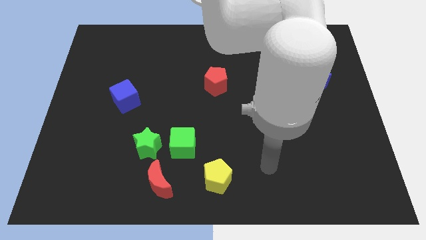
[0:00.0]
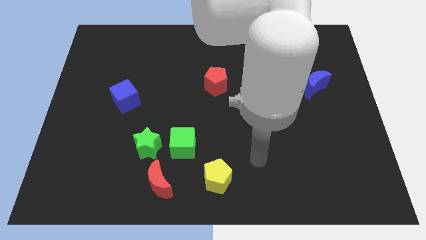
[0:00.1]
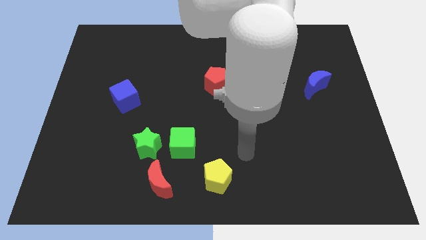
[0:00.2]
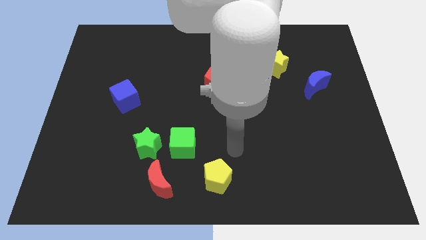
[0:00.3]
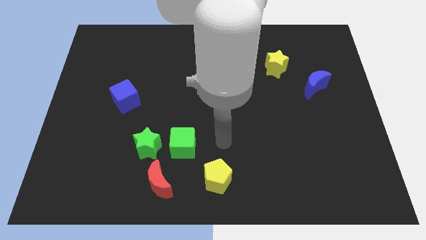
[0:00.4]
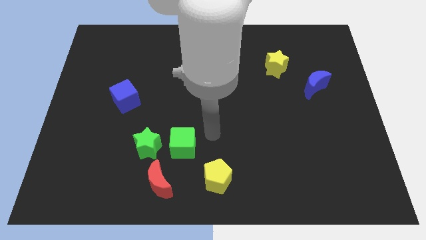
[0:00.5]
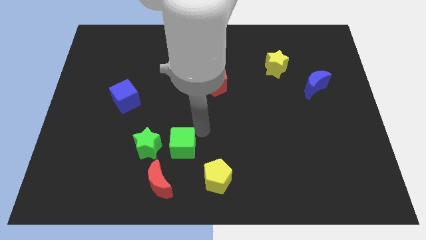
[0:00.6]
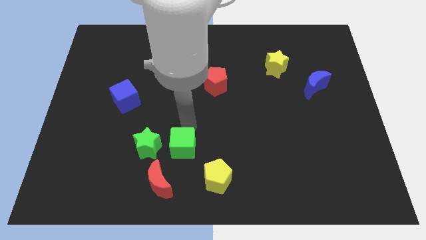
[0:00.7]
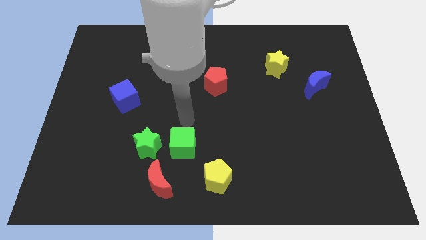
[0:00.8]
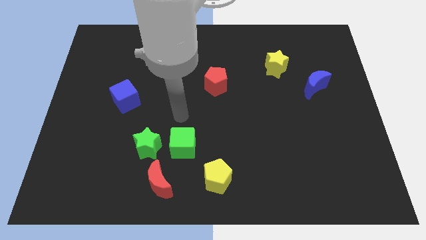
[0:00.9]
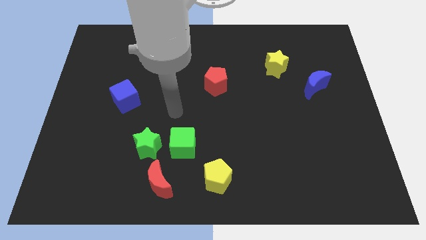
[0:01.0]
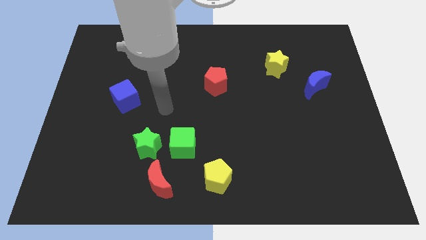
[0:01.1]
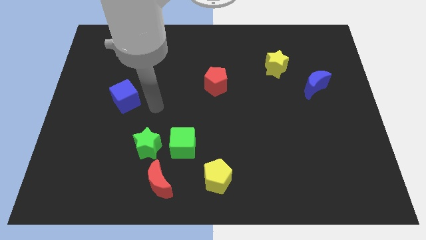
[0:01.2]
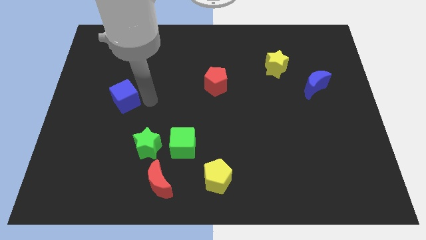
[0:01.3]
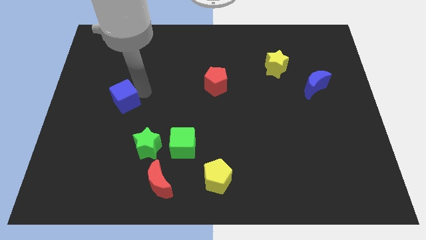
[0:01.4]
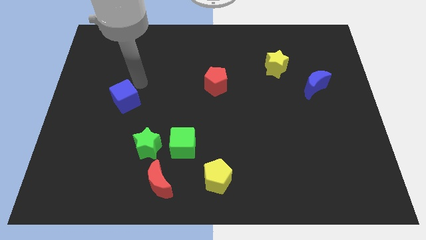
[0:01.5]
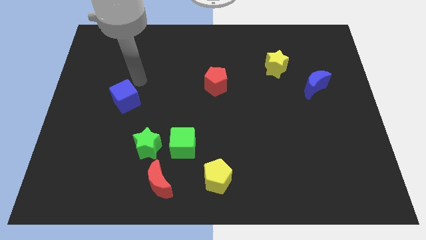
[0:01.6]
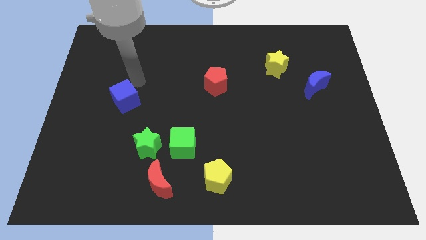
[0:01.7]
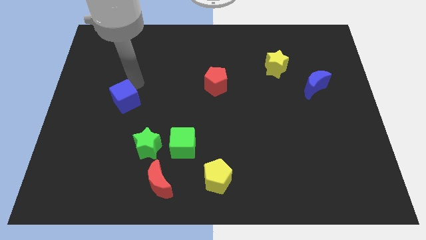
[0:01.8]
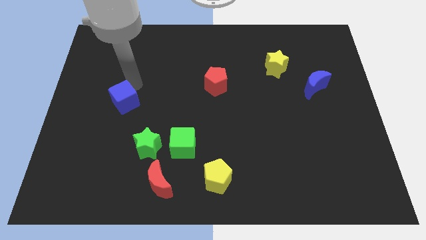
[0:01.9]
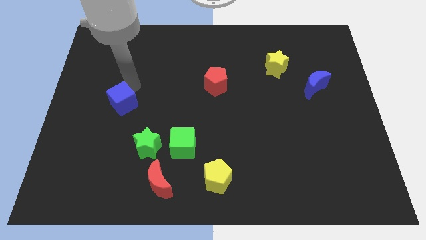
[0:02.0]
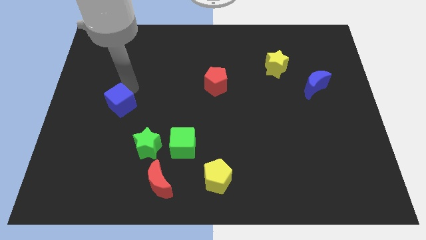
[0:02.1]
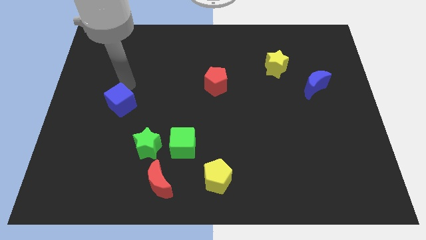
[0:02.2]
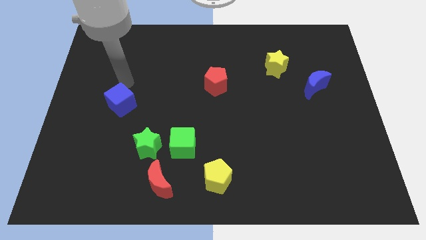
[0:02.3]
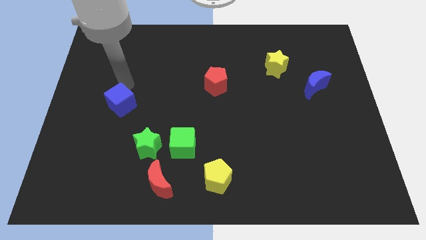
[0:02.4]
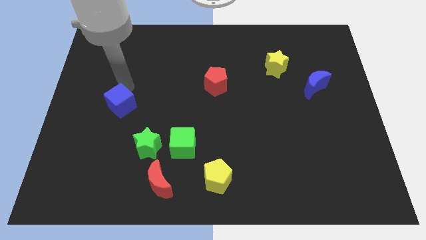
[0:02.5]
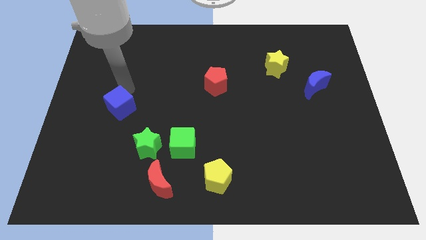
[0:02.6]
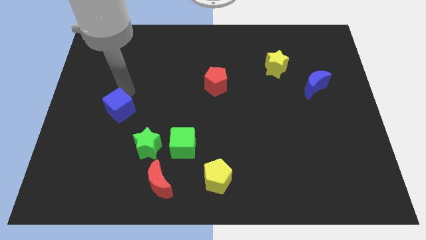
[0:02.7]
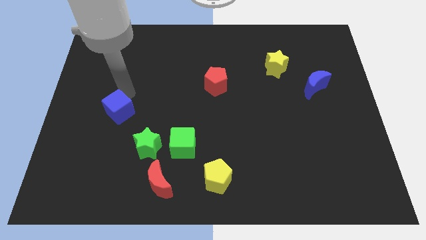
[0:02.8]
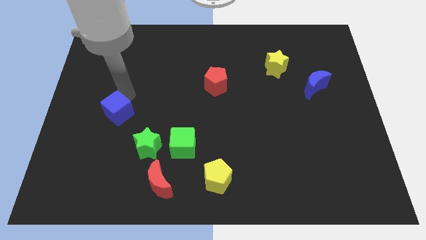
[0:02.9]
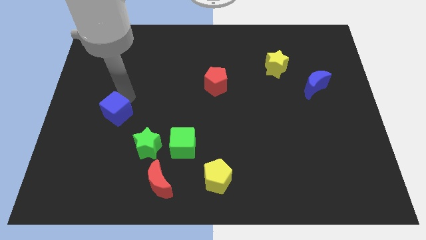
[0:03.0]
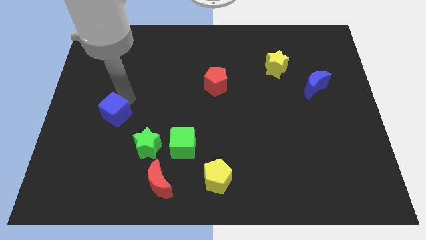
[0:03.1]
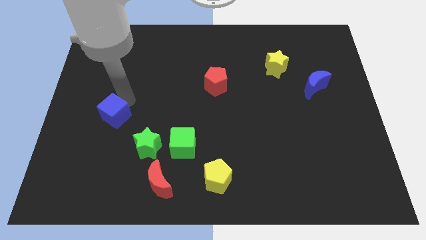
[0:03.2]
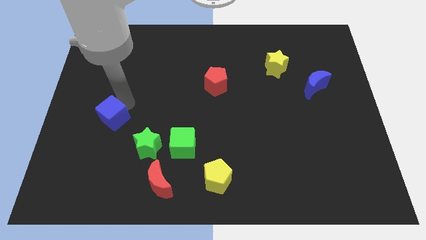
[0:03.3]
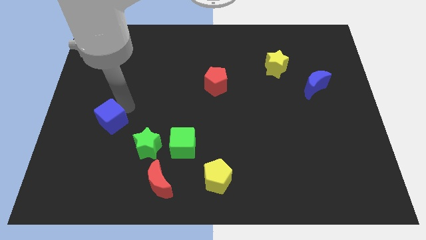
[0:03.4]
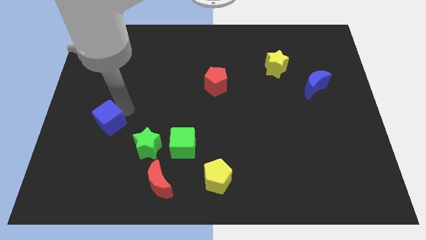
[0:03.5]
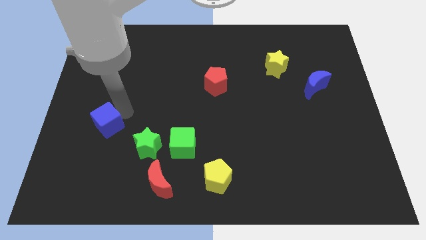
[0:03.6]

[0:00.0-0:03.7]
slide the blue cube down a bit

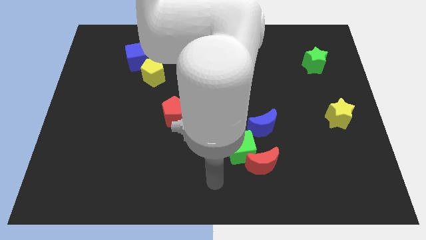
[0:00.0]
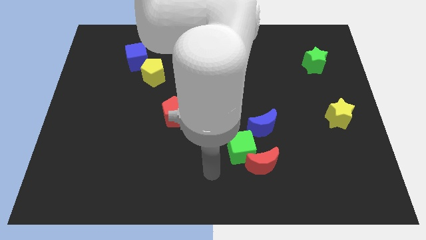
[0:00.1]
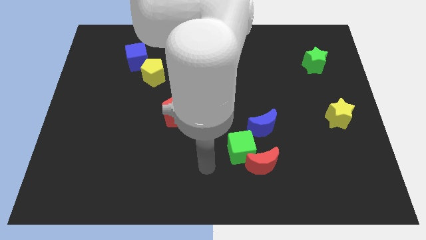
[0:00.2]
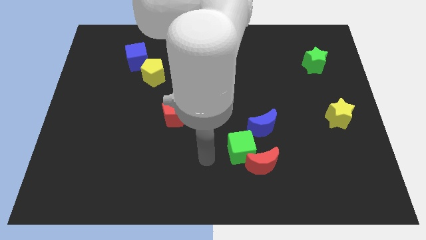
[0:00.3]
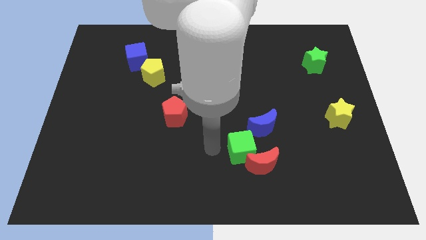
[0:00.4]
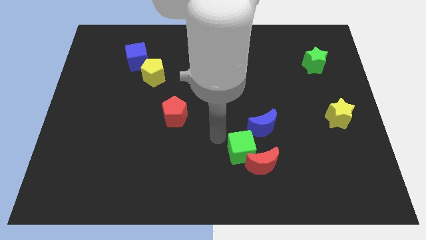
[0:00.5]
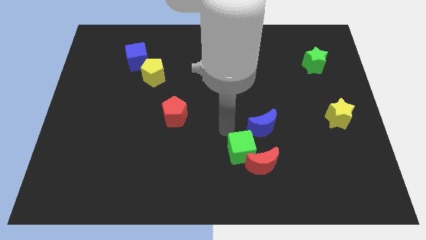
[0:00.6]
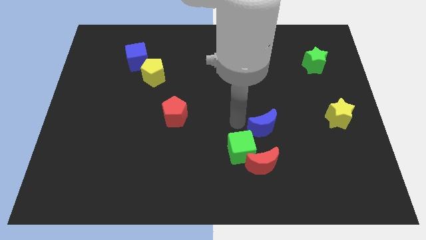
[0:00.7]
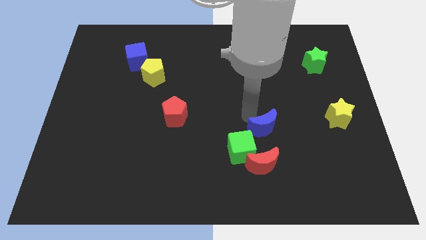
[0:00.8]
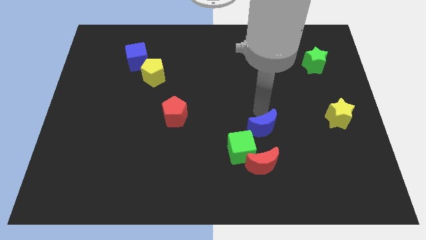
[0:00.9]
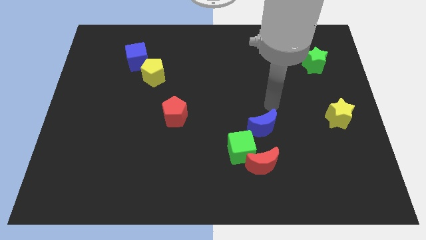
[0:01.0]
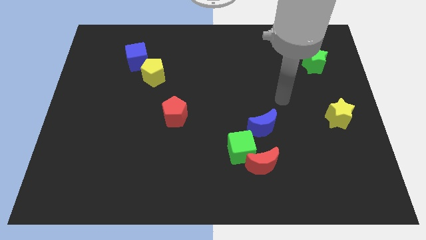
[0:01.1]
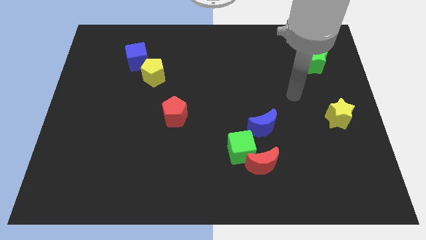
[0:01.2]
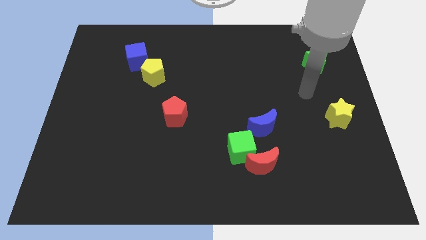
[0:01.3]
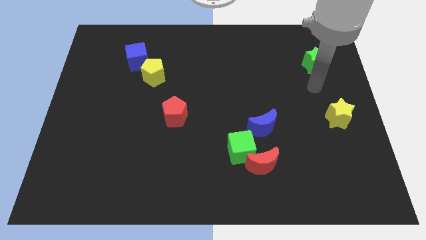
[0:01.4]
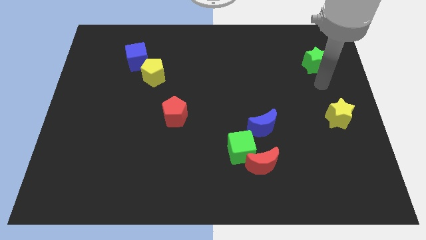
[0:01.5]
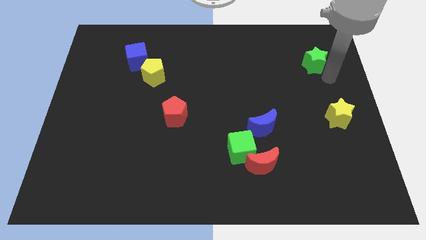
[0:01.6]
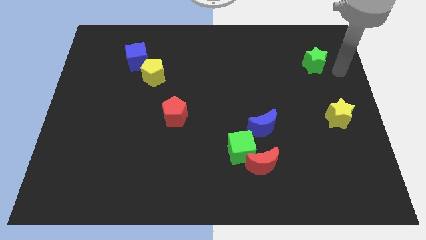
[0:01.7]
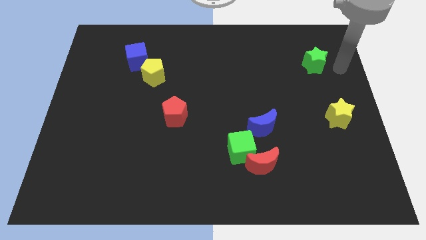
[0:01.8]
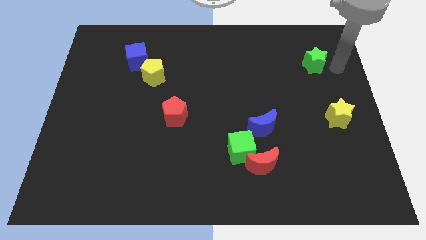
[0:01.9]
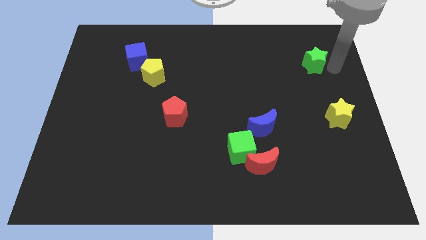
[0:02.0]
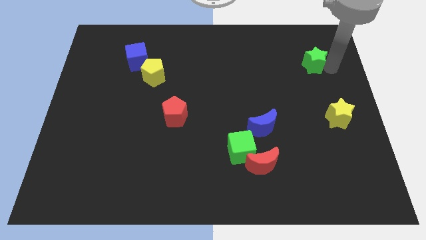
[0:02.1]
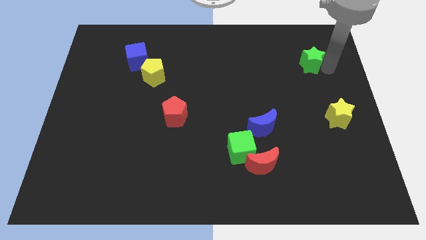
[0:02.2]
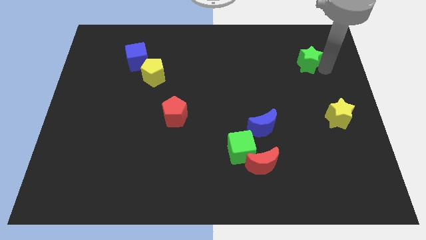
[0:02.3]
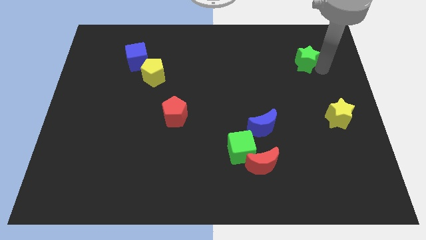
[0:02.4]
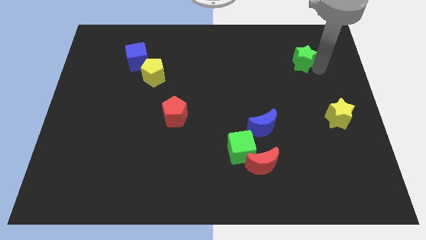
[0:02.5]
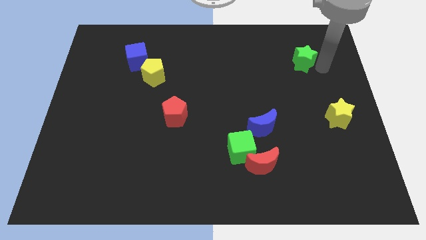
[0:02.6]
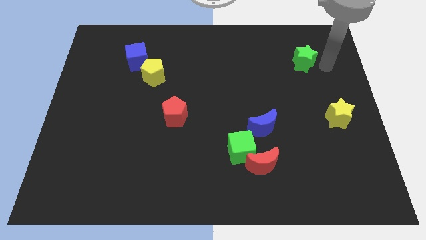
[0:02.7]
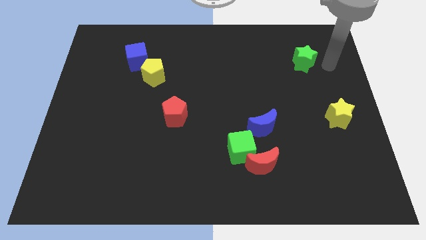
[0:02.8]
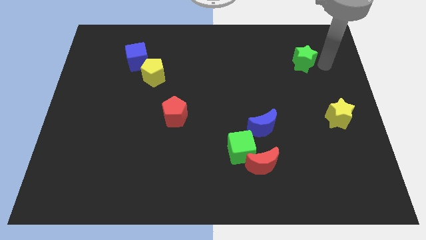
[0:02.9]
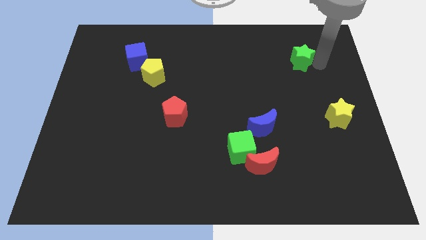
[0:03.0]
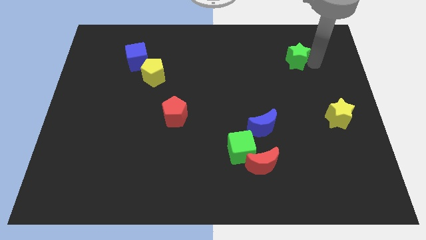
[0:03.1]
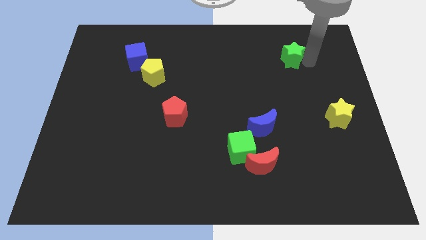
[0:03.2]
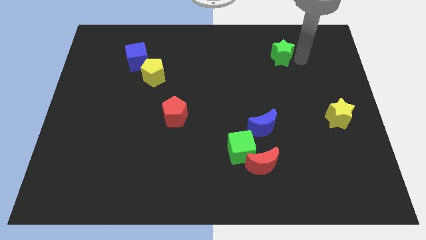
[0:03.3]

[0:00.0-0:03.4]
slide the green star left somewhat

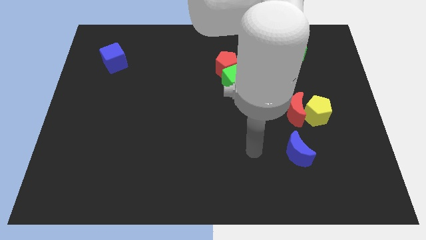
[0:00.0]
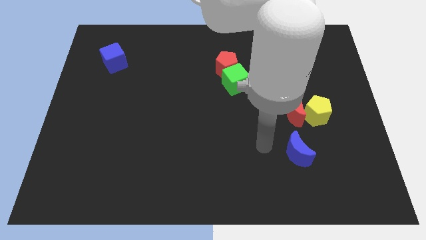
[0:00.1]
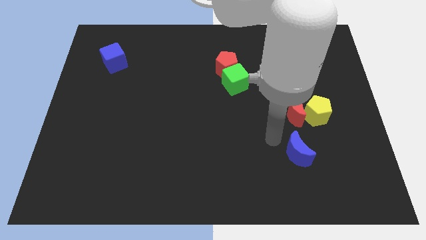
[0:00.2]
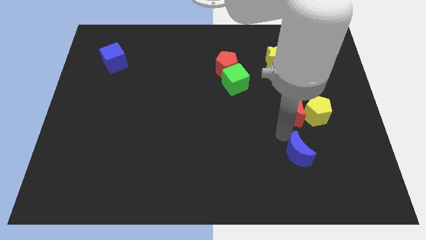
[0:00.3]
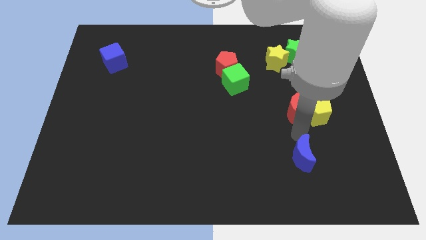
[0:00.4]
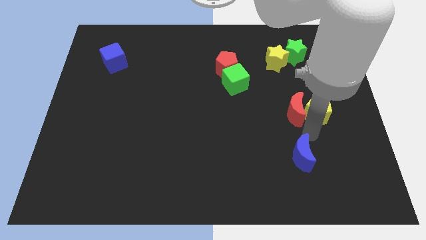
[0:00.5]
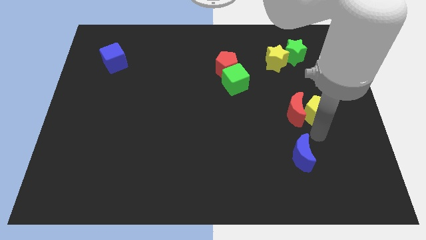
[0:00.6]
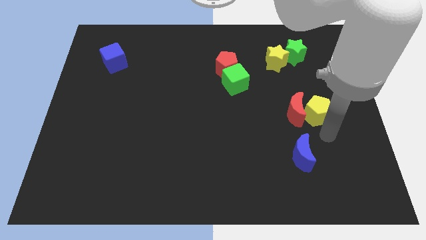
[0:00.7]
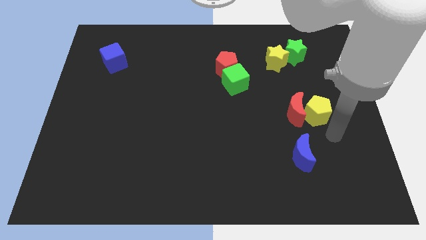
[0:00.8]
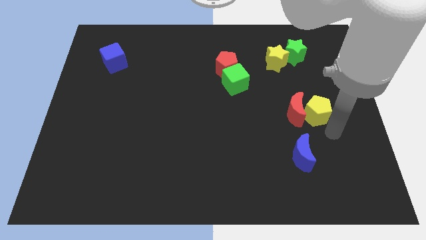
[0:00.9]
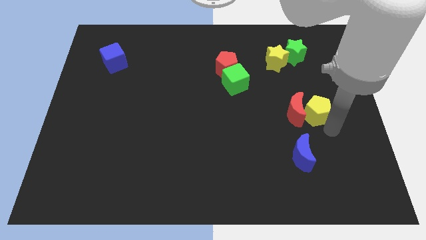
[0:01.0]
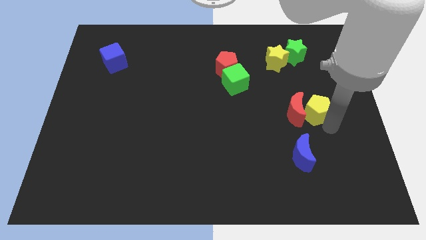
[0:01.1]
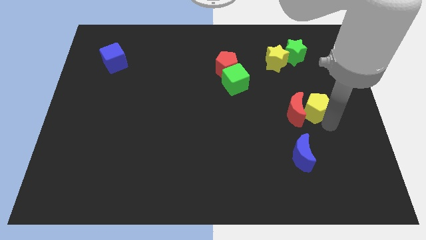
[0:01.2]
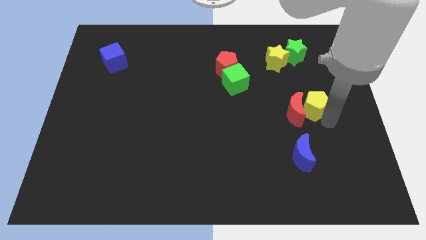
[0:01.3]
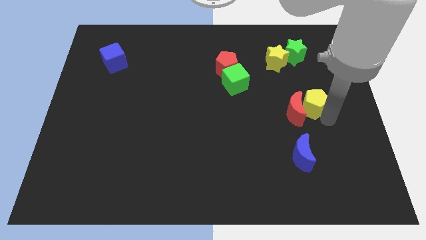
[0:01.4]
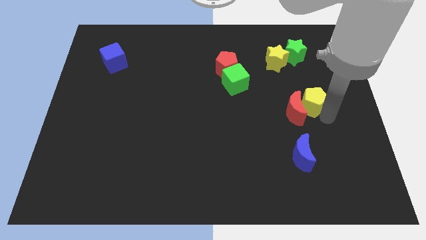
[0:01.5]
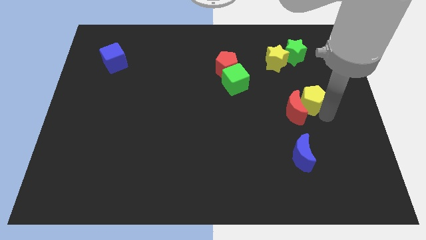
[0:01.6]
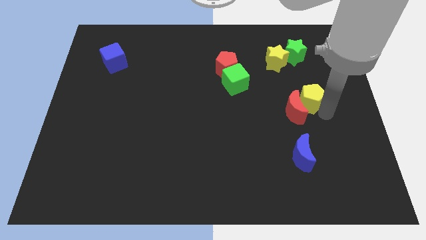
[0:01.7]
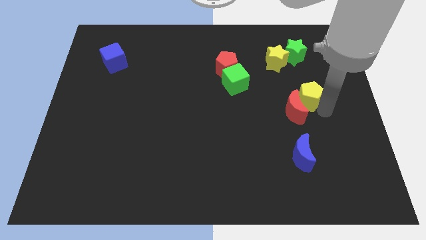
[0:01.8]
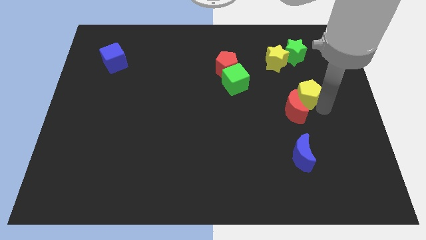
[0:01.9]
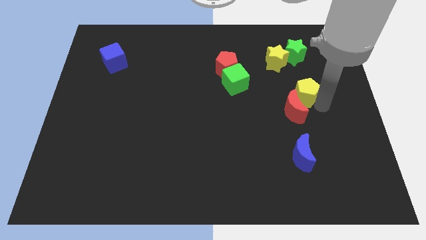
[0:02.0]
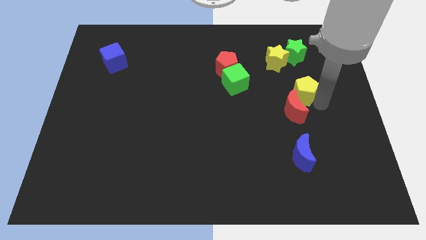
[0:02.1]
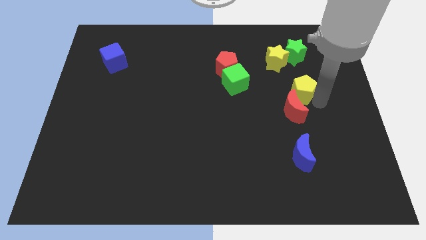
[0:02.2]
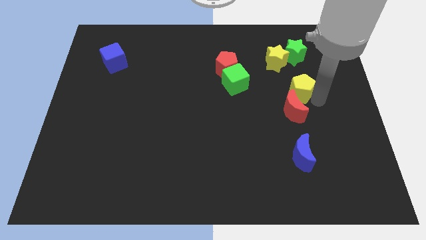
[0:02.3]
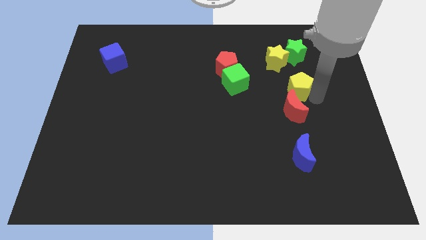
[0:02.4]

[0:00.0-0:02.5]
push the yellow pentagon slightly upwards and then to the left
